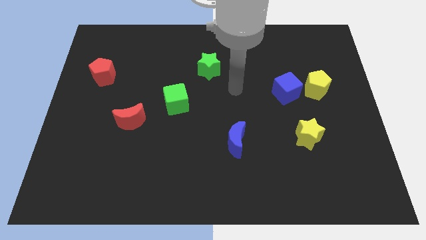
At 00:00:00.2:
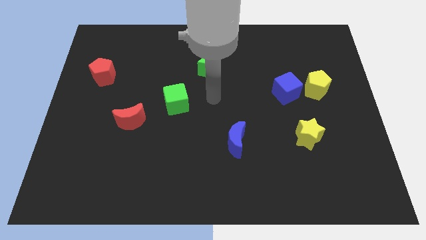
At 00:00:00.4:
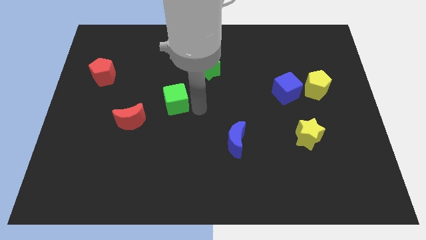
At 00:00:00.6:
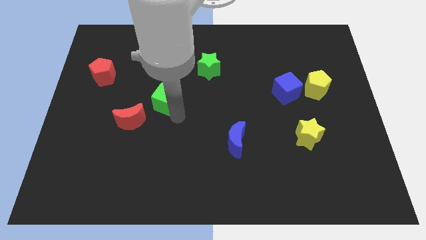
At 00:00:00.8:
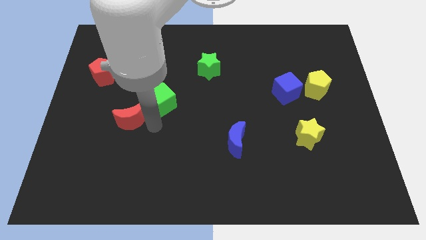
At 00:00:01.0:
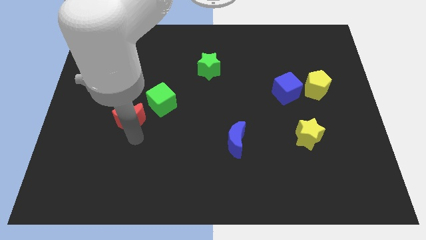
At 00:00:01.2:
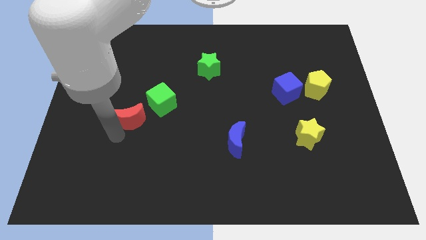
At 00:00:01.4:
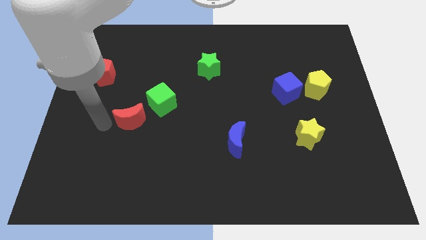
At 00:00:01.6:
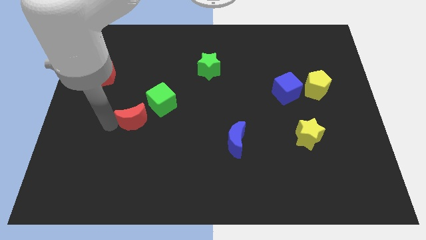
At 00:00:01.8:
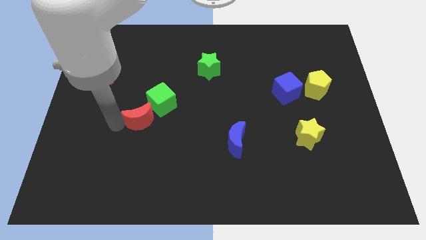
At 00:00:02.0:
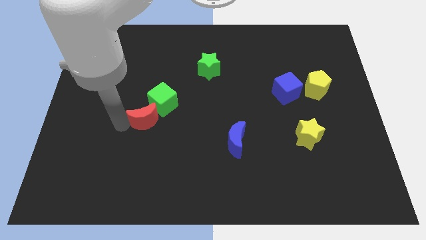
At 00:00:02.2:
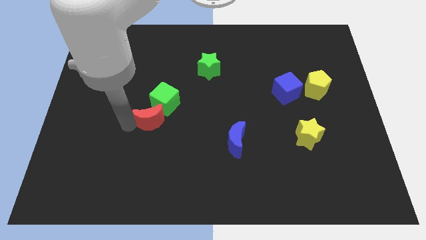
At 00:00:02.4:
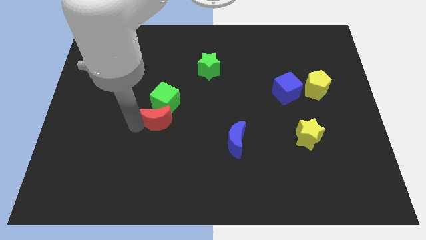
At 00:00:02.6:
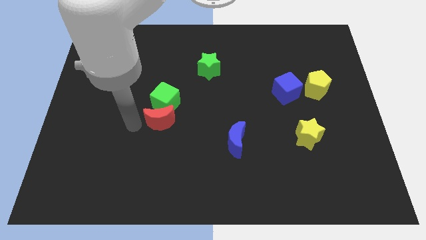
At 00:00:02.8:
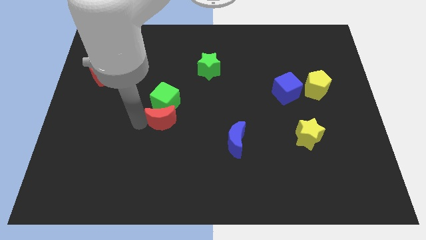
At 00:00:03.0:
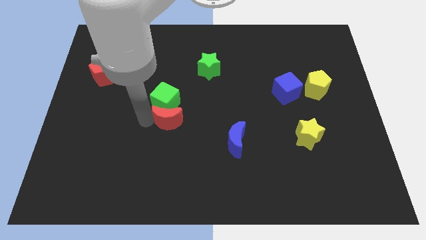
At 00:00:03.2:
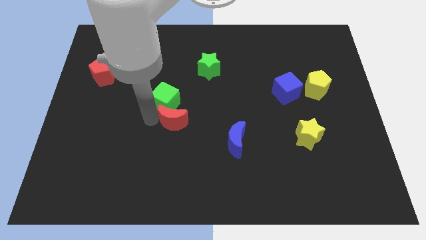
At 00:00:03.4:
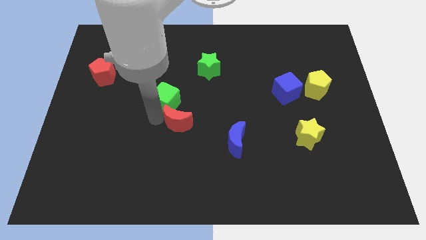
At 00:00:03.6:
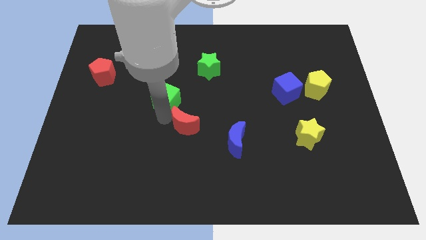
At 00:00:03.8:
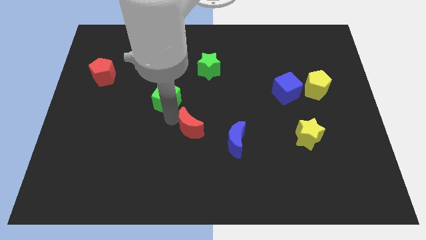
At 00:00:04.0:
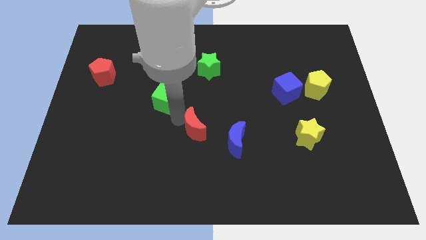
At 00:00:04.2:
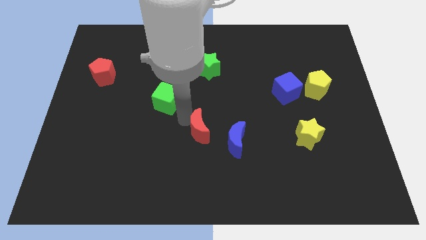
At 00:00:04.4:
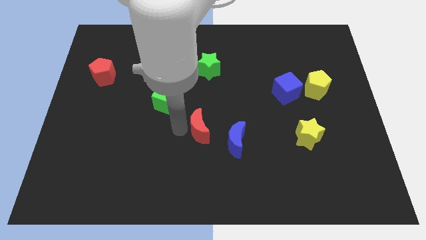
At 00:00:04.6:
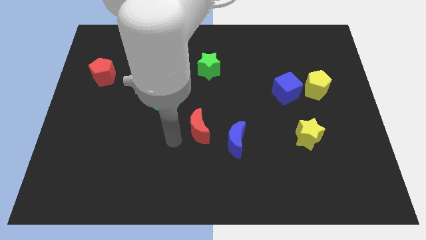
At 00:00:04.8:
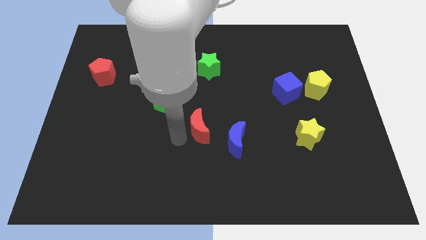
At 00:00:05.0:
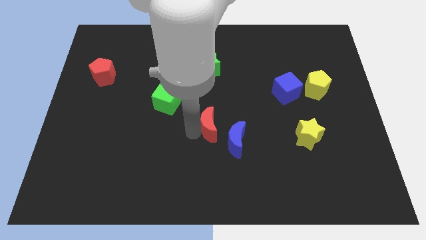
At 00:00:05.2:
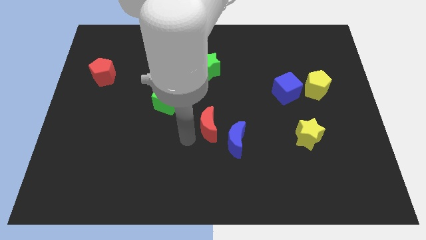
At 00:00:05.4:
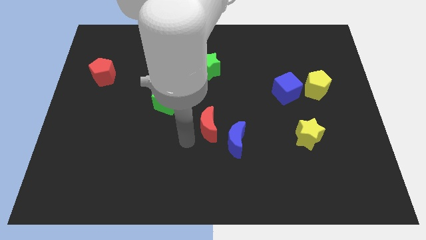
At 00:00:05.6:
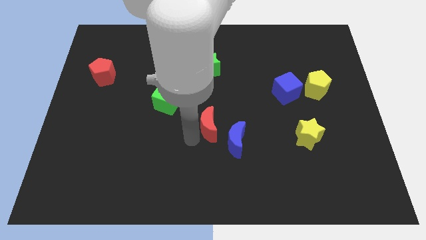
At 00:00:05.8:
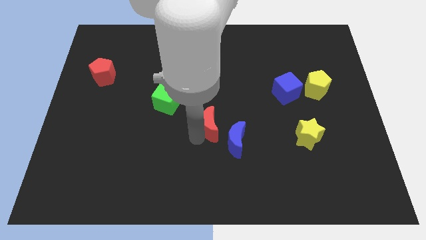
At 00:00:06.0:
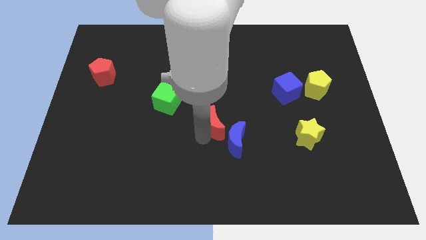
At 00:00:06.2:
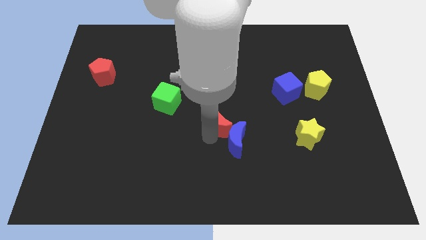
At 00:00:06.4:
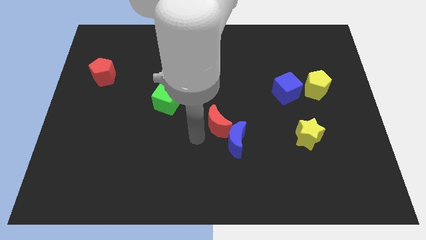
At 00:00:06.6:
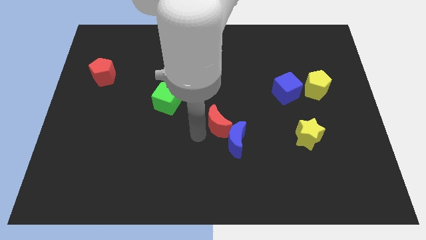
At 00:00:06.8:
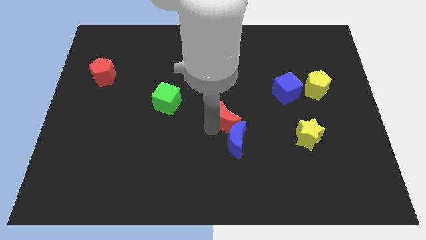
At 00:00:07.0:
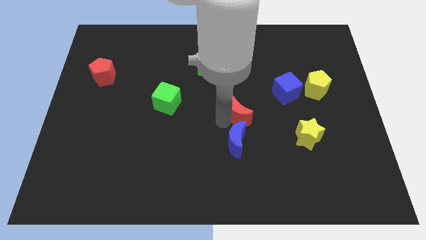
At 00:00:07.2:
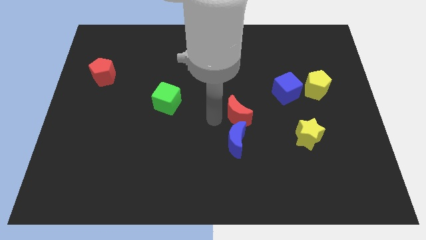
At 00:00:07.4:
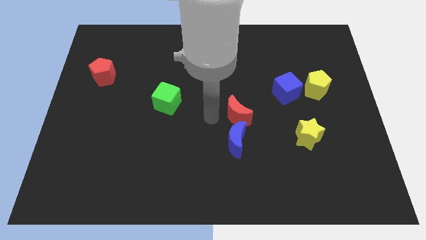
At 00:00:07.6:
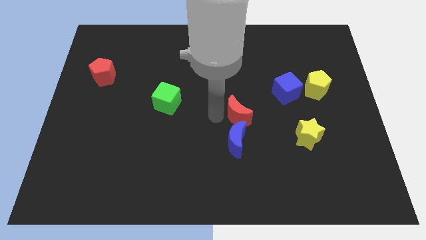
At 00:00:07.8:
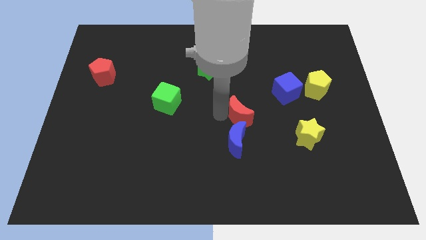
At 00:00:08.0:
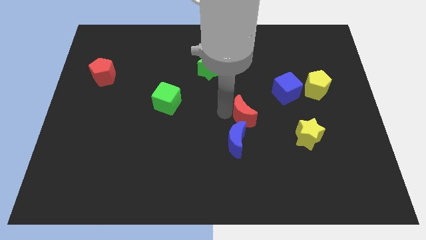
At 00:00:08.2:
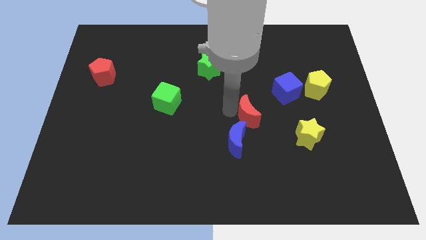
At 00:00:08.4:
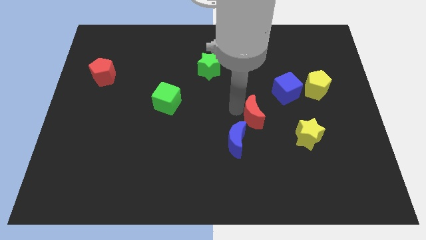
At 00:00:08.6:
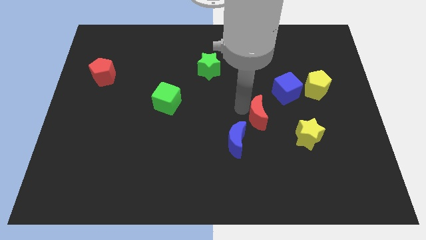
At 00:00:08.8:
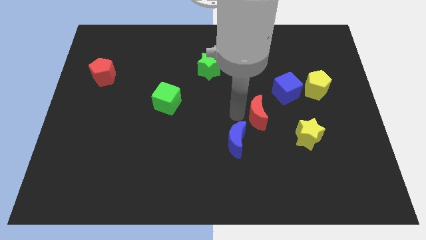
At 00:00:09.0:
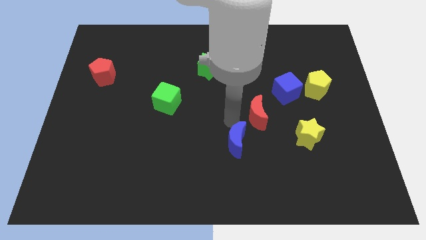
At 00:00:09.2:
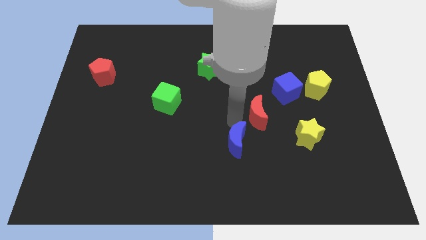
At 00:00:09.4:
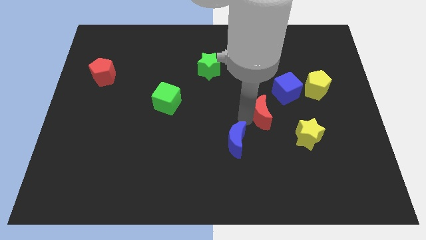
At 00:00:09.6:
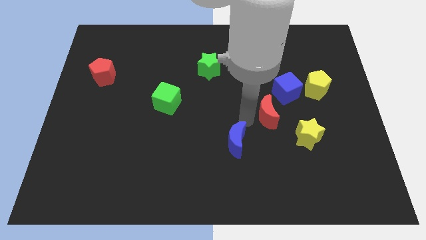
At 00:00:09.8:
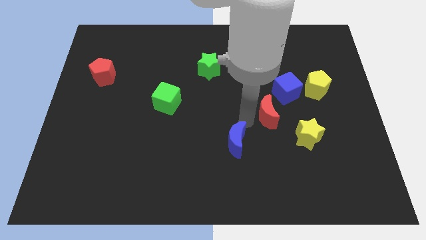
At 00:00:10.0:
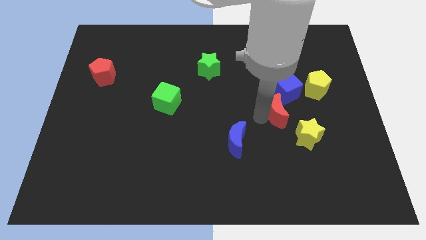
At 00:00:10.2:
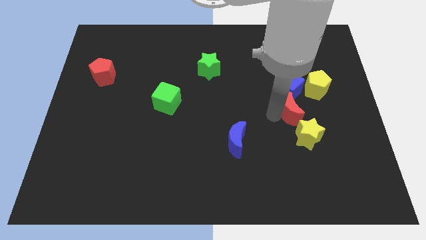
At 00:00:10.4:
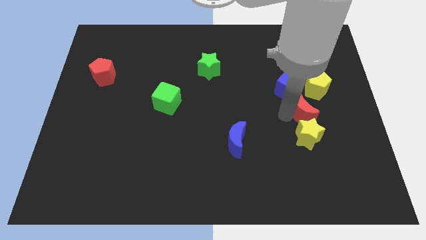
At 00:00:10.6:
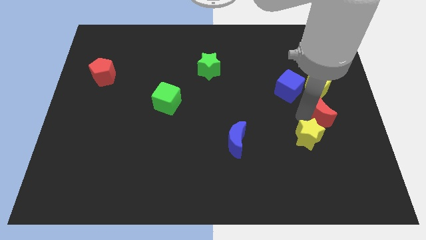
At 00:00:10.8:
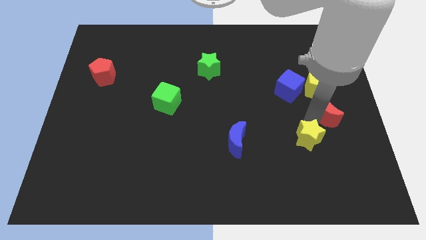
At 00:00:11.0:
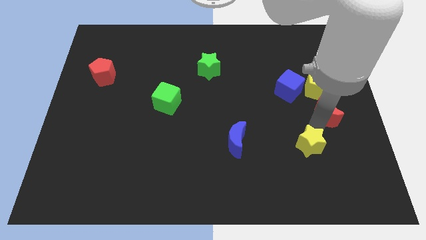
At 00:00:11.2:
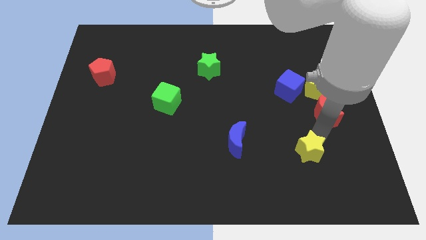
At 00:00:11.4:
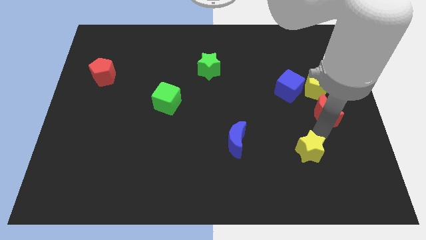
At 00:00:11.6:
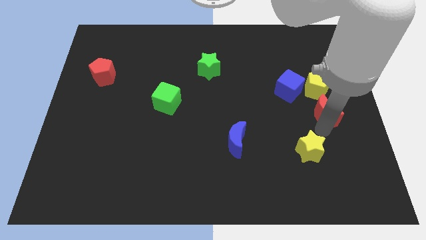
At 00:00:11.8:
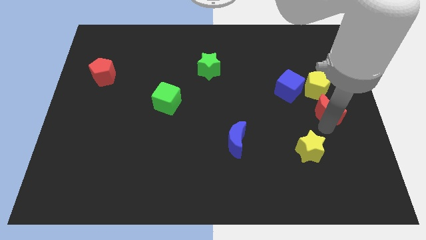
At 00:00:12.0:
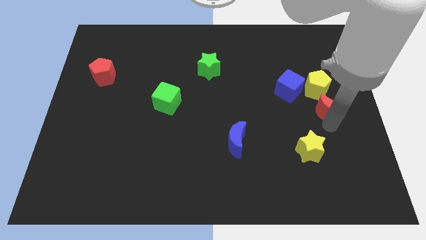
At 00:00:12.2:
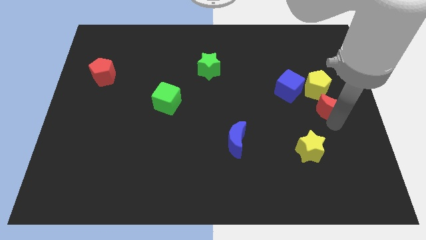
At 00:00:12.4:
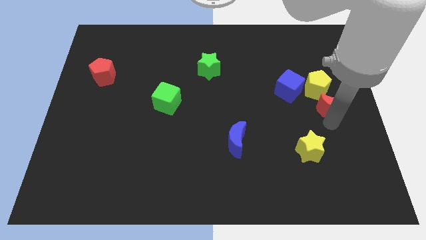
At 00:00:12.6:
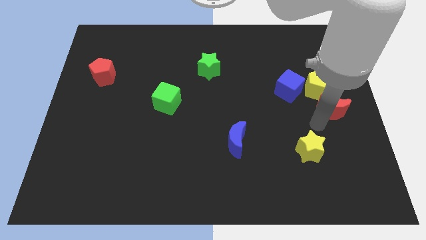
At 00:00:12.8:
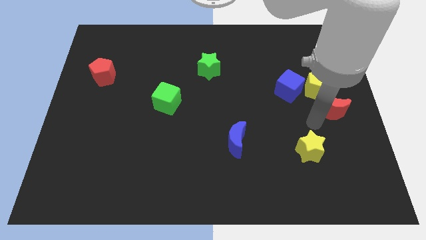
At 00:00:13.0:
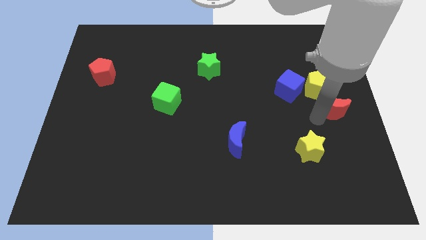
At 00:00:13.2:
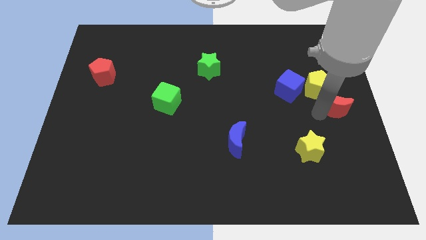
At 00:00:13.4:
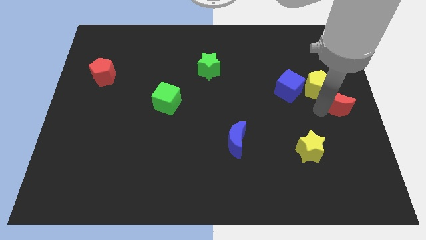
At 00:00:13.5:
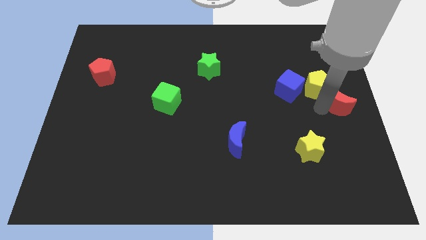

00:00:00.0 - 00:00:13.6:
push the red moon to the right side of the blue cube

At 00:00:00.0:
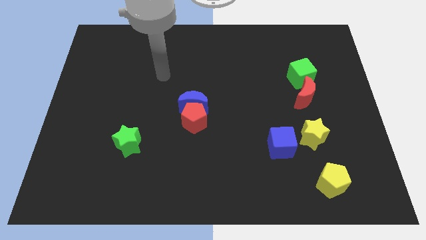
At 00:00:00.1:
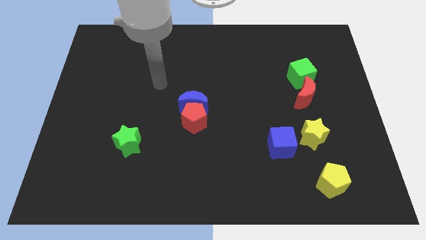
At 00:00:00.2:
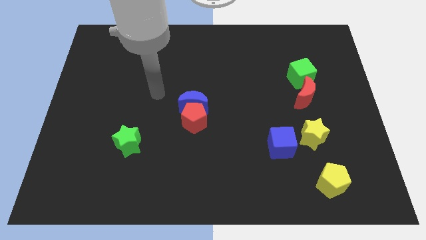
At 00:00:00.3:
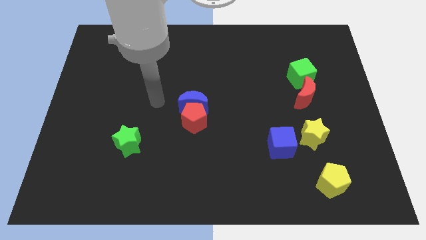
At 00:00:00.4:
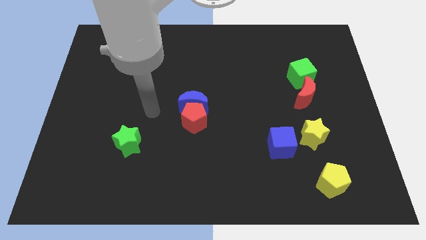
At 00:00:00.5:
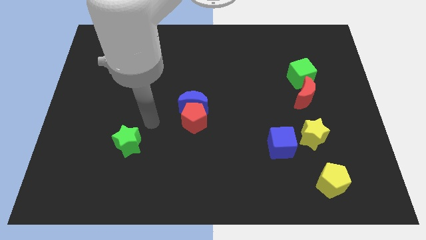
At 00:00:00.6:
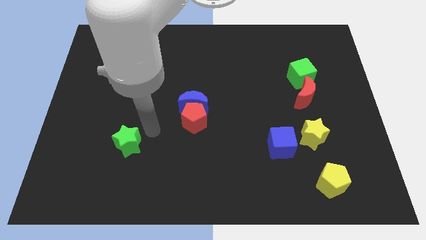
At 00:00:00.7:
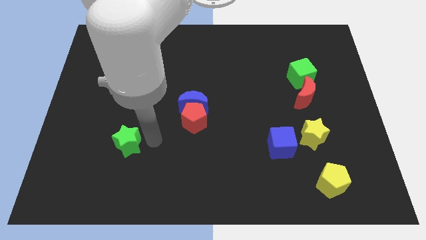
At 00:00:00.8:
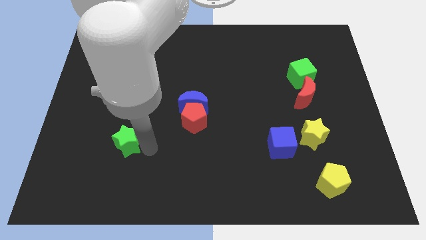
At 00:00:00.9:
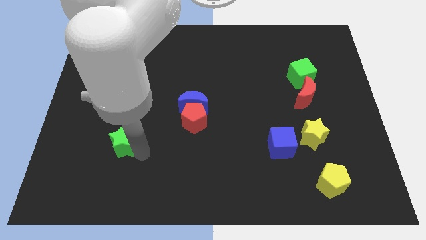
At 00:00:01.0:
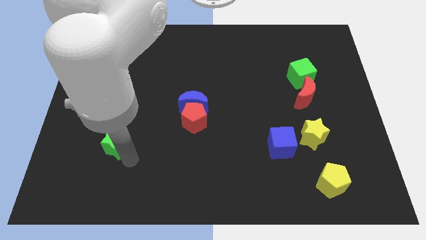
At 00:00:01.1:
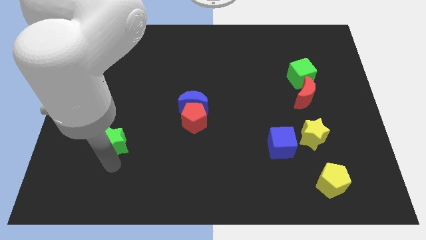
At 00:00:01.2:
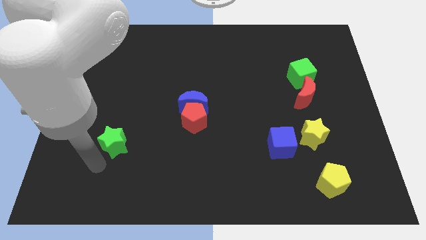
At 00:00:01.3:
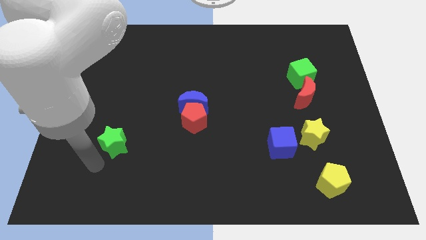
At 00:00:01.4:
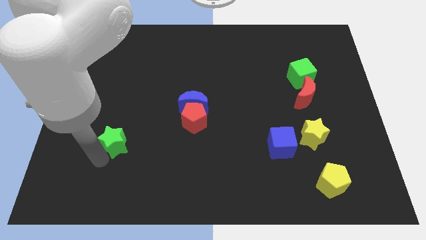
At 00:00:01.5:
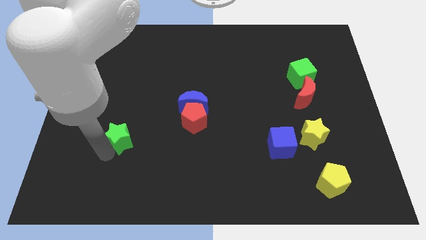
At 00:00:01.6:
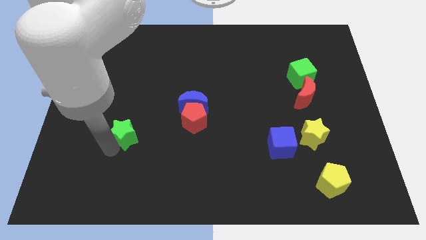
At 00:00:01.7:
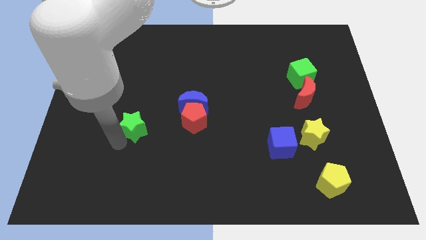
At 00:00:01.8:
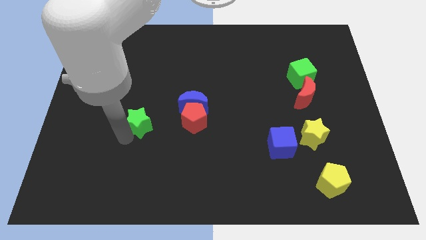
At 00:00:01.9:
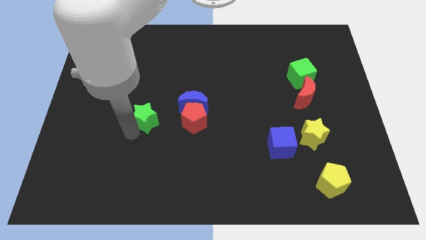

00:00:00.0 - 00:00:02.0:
slide the green star to the left of the blue moon
